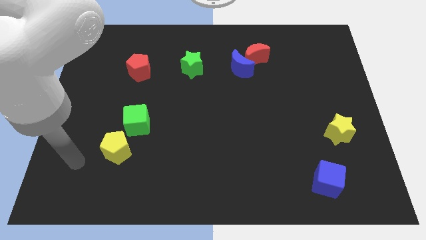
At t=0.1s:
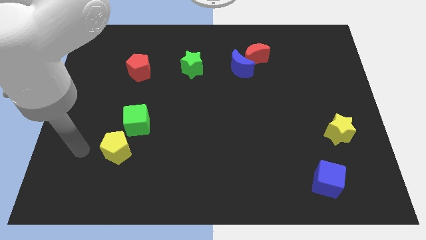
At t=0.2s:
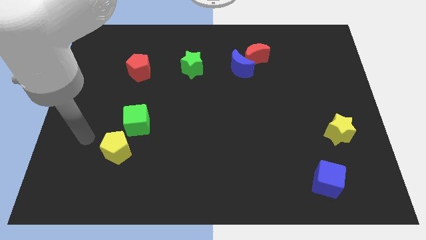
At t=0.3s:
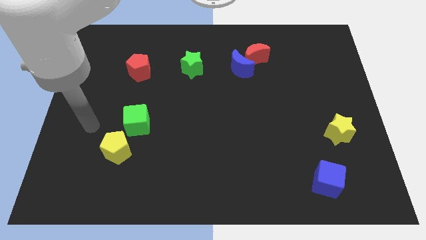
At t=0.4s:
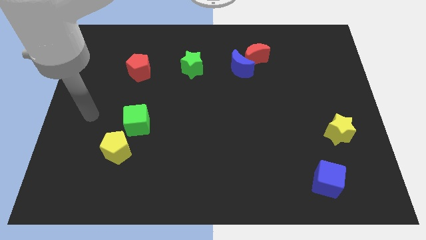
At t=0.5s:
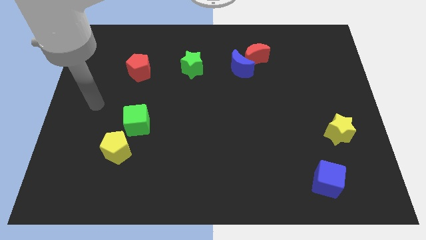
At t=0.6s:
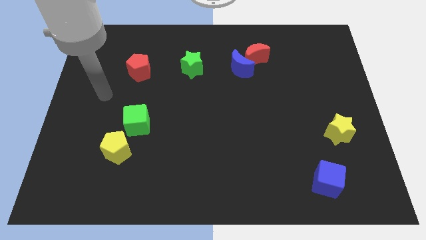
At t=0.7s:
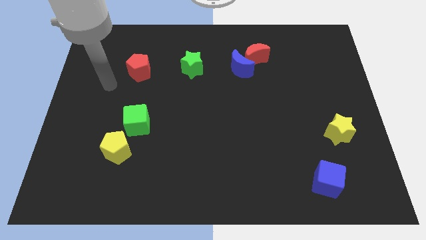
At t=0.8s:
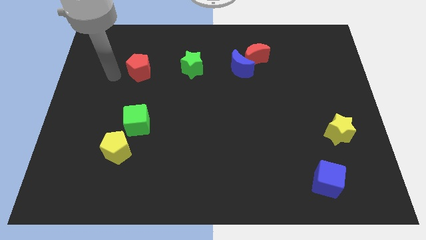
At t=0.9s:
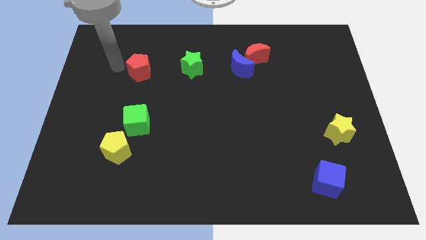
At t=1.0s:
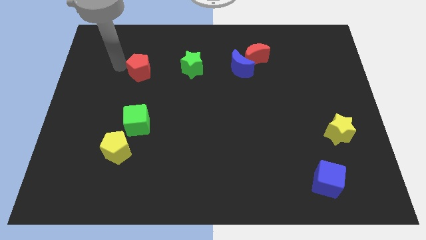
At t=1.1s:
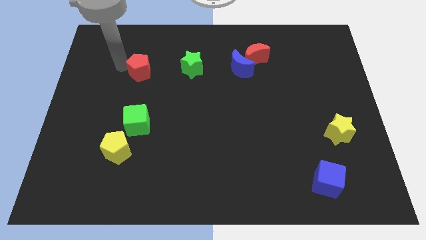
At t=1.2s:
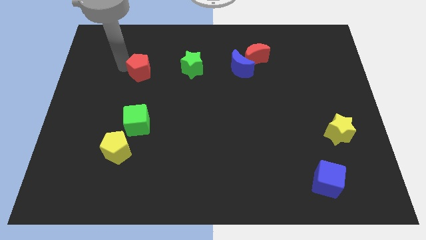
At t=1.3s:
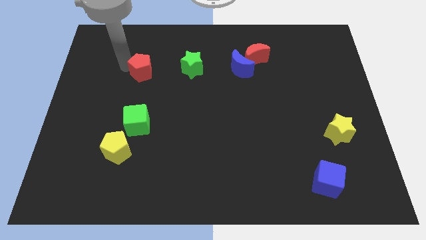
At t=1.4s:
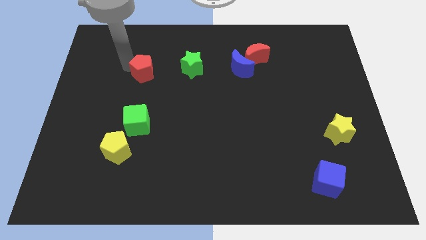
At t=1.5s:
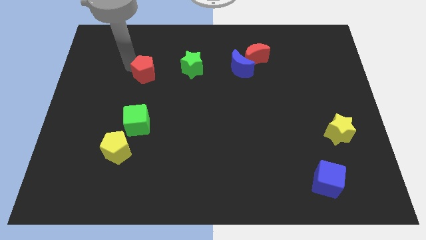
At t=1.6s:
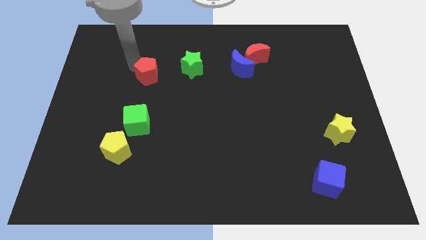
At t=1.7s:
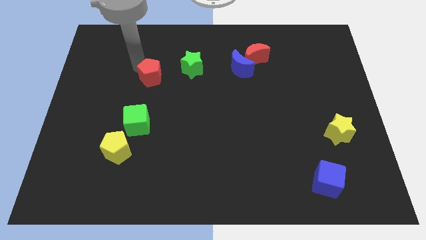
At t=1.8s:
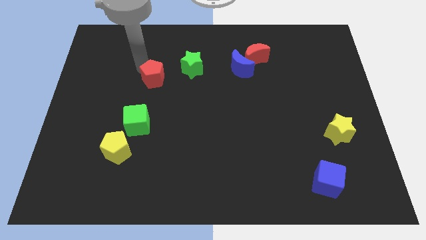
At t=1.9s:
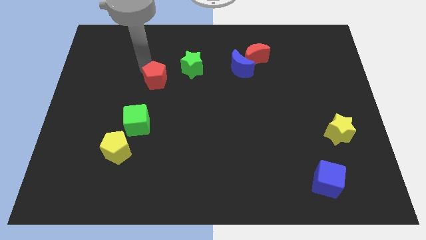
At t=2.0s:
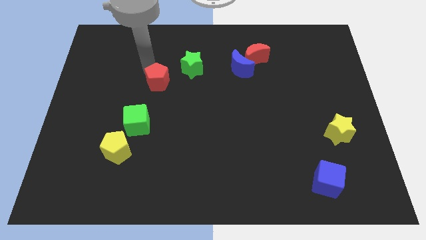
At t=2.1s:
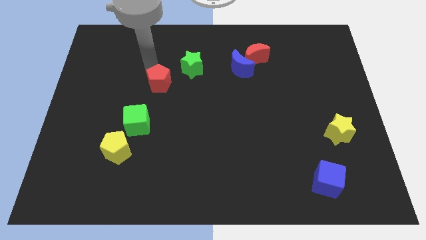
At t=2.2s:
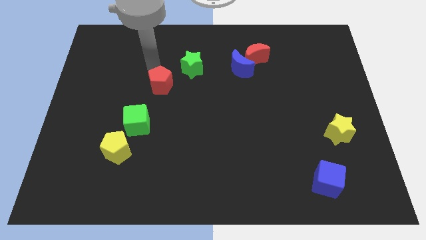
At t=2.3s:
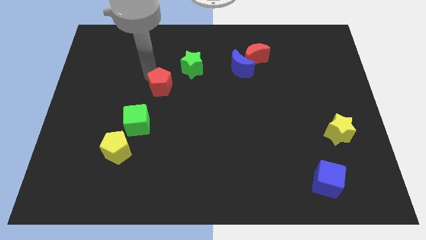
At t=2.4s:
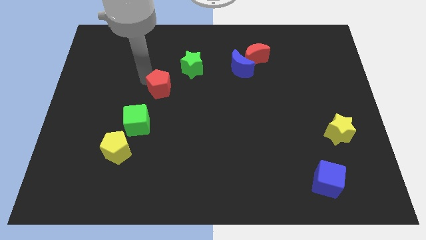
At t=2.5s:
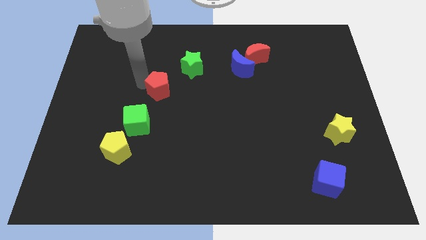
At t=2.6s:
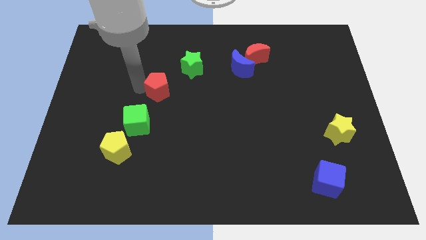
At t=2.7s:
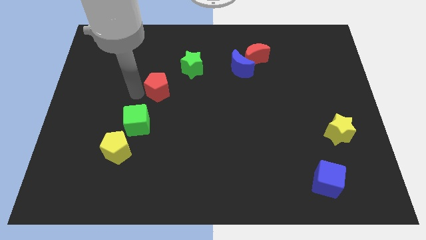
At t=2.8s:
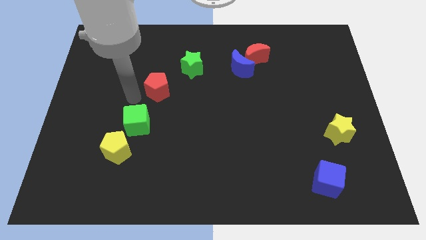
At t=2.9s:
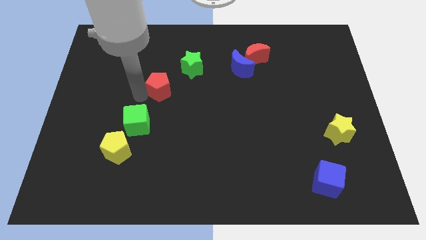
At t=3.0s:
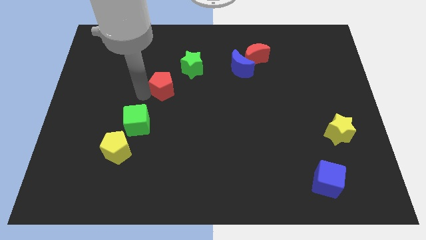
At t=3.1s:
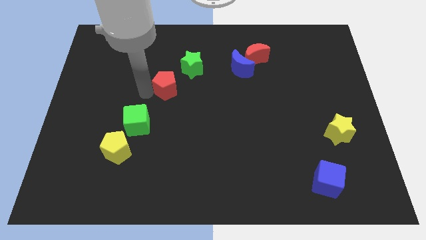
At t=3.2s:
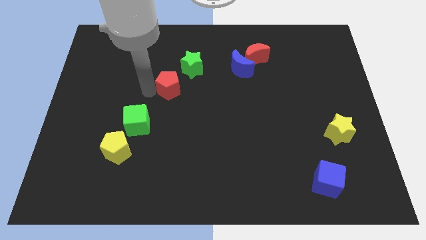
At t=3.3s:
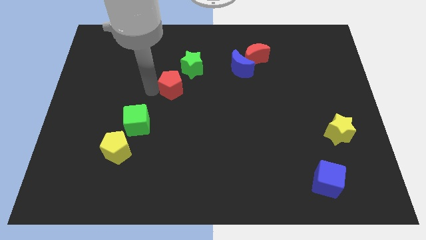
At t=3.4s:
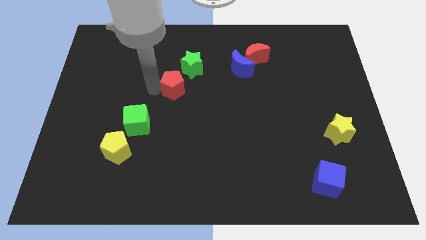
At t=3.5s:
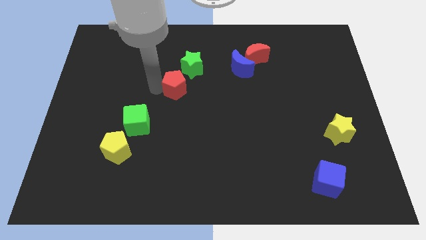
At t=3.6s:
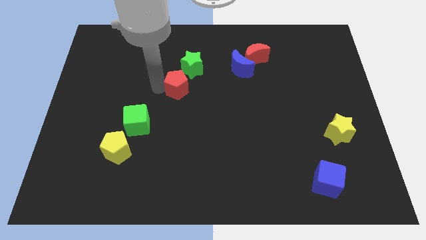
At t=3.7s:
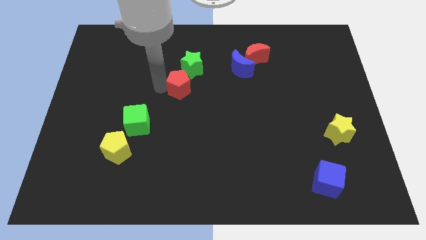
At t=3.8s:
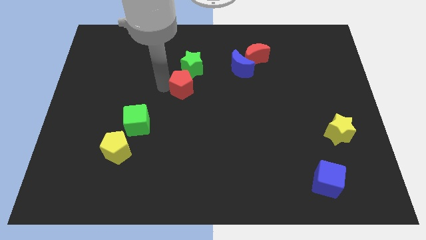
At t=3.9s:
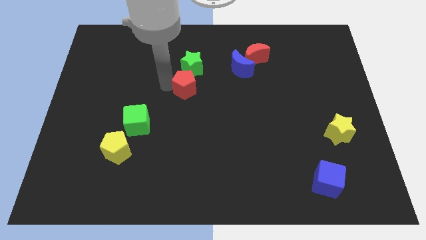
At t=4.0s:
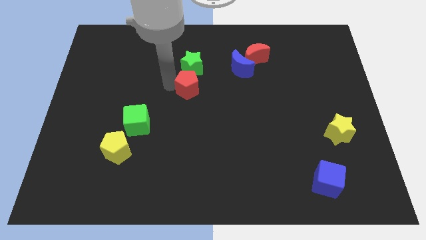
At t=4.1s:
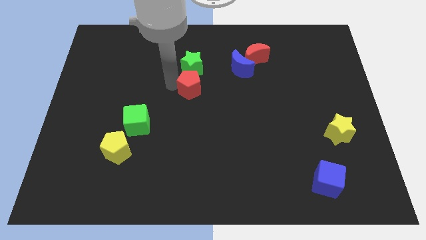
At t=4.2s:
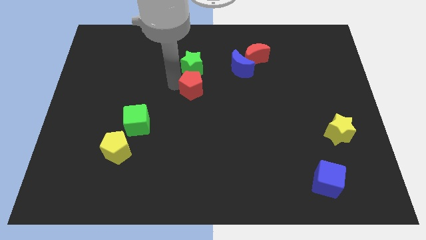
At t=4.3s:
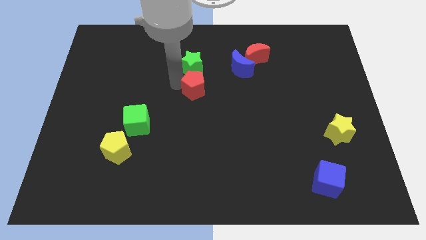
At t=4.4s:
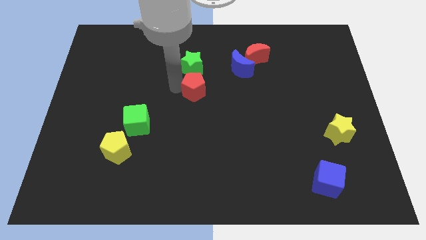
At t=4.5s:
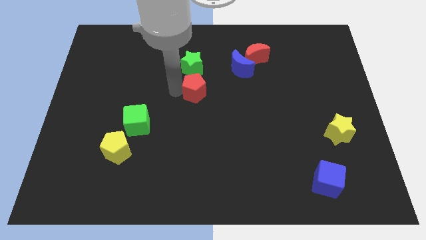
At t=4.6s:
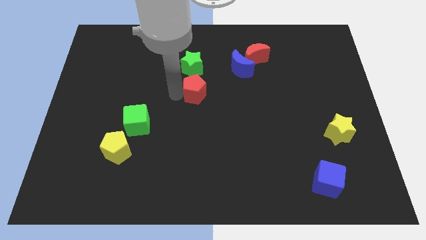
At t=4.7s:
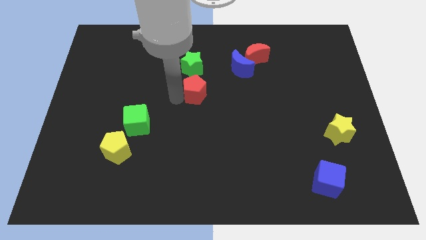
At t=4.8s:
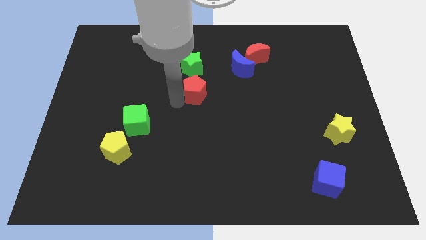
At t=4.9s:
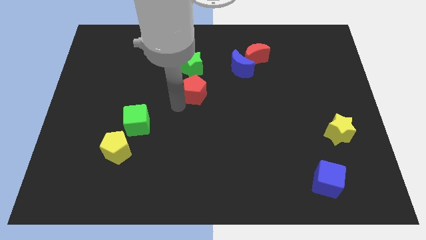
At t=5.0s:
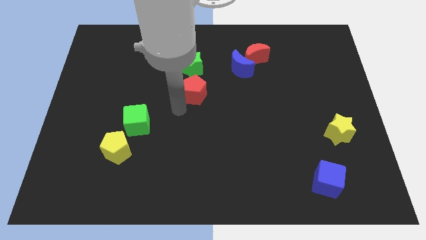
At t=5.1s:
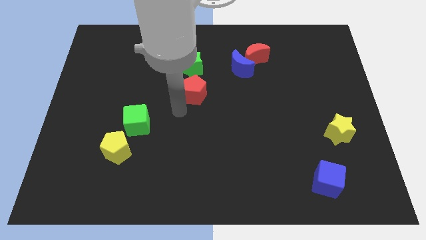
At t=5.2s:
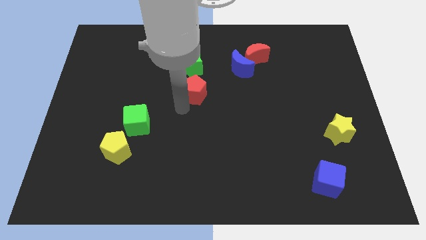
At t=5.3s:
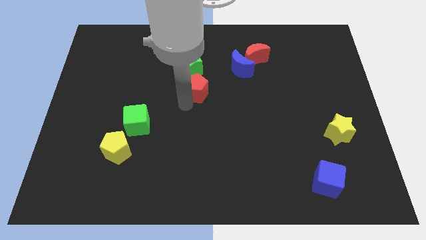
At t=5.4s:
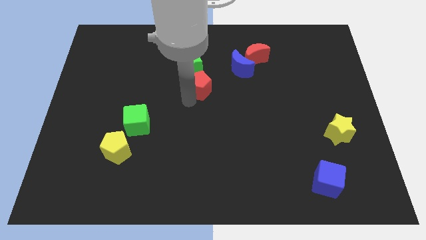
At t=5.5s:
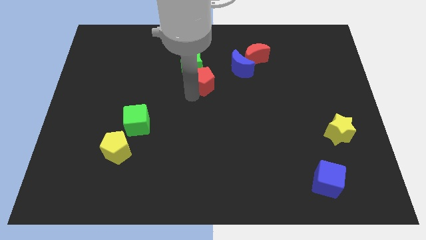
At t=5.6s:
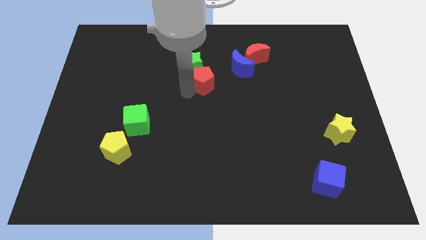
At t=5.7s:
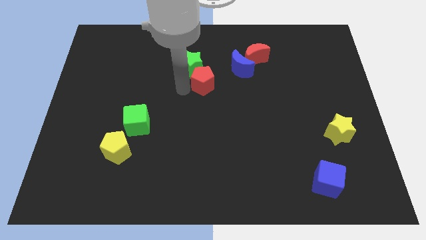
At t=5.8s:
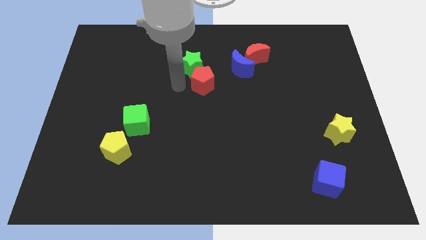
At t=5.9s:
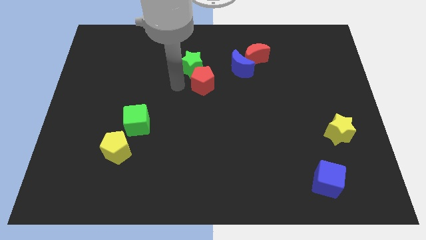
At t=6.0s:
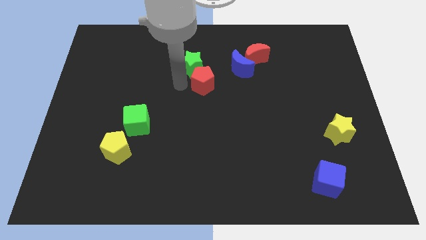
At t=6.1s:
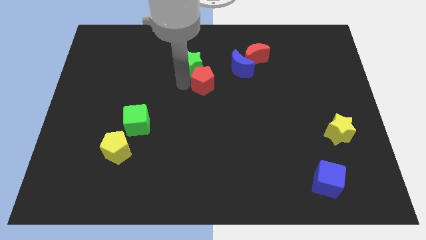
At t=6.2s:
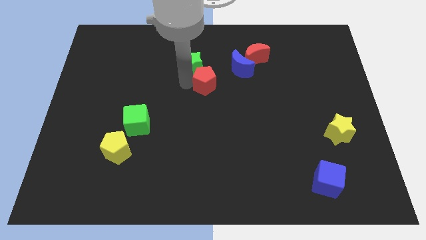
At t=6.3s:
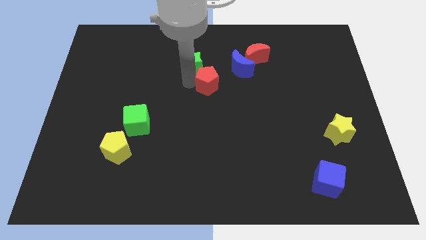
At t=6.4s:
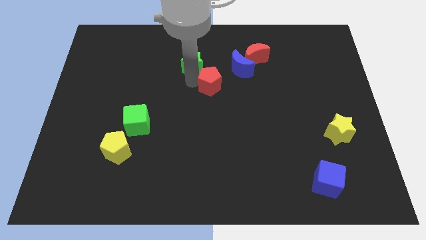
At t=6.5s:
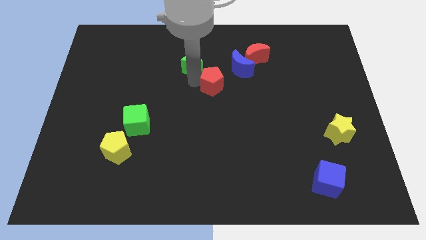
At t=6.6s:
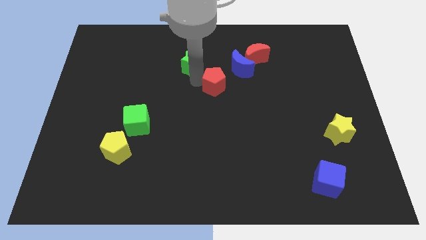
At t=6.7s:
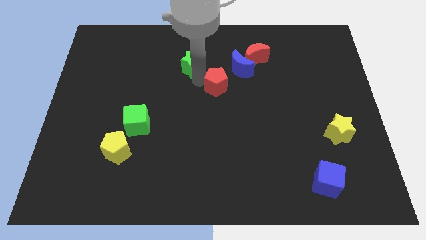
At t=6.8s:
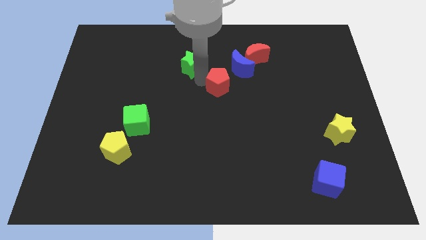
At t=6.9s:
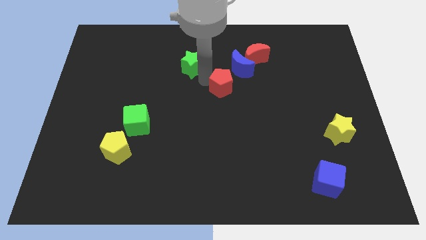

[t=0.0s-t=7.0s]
move the red pentagon to the right

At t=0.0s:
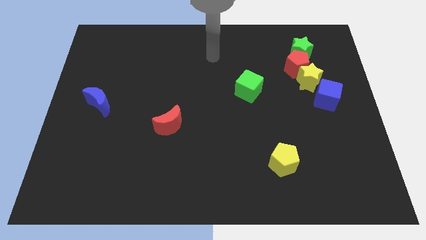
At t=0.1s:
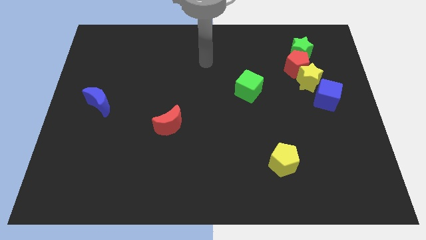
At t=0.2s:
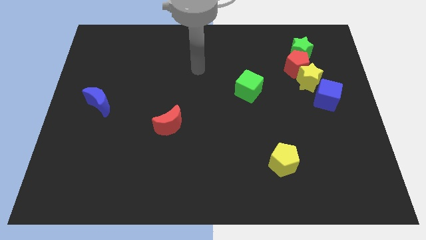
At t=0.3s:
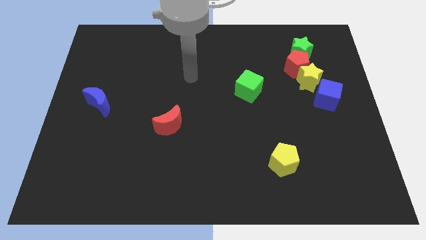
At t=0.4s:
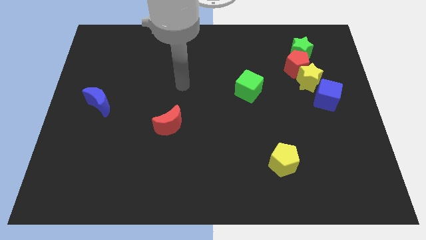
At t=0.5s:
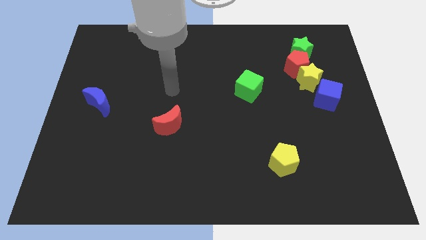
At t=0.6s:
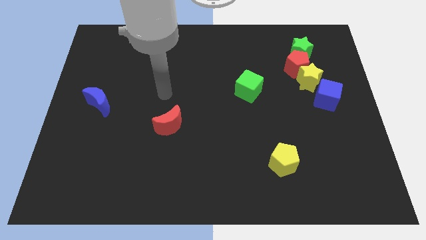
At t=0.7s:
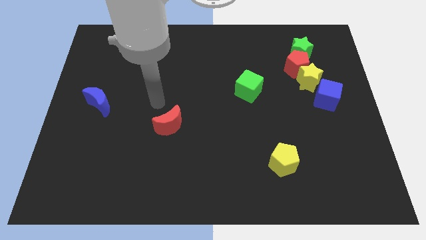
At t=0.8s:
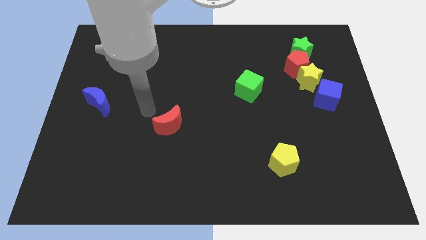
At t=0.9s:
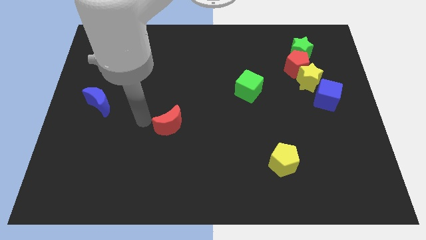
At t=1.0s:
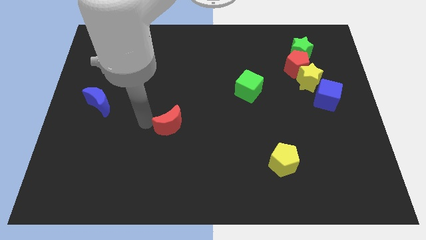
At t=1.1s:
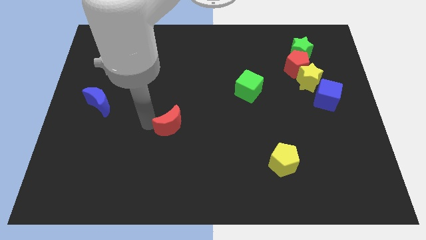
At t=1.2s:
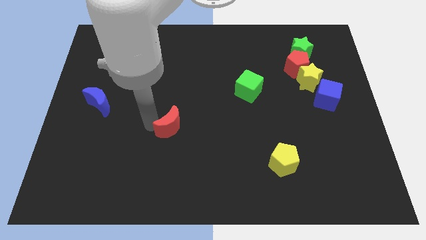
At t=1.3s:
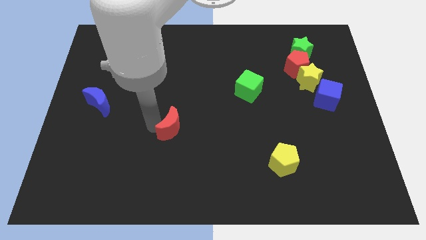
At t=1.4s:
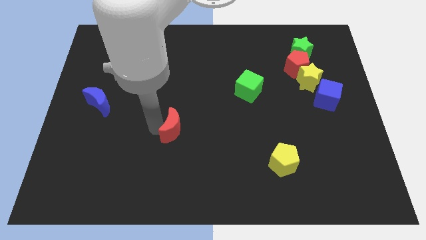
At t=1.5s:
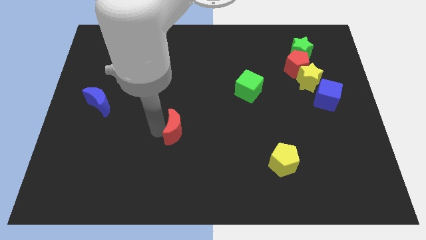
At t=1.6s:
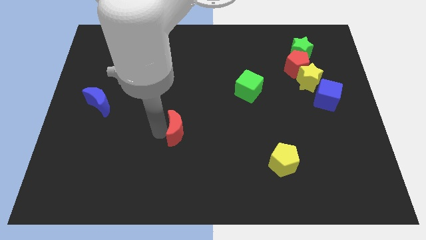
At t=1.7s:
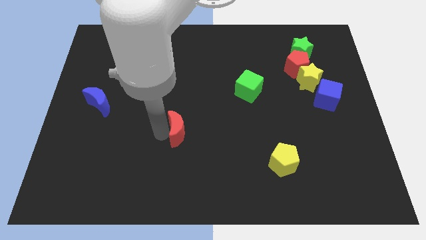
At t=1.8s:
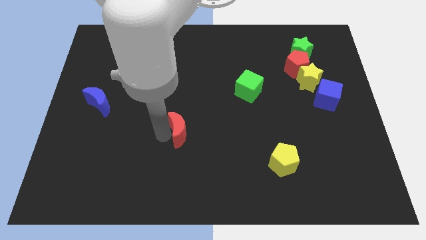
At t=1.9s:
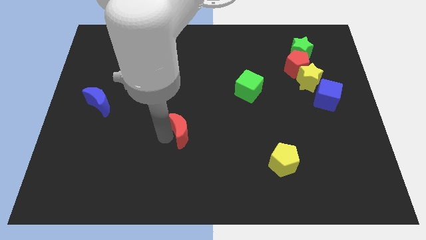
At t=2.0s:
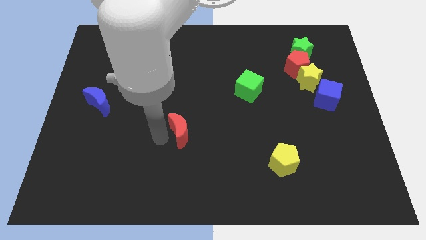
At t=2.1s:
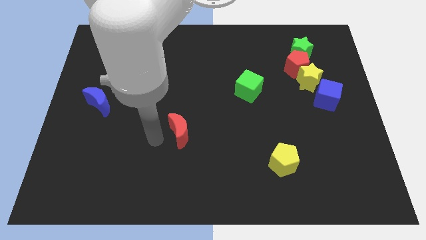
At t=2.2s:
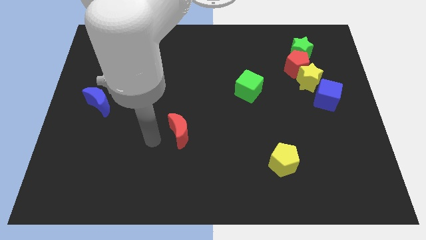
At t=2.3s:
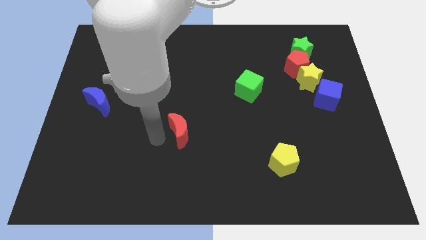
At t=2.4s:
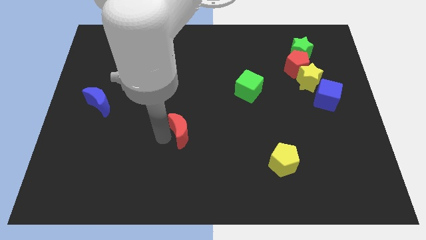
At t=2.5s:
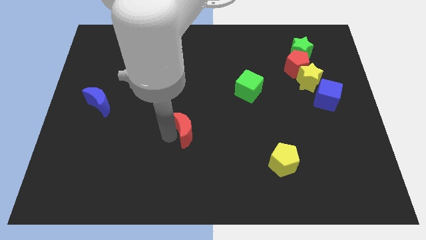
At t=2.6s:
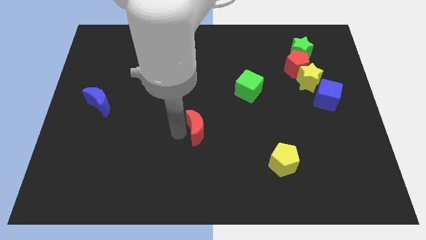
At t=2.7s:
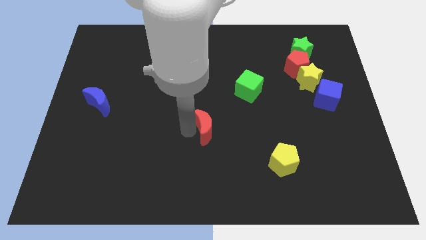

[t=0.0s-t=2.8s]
slide the red moon slightly right
